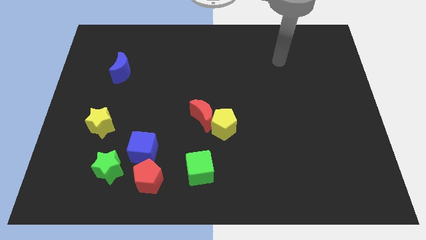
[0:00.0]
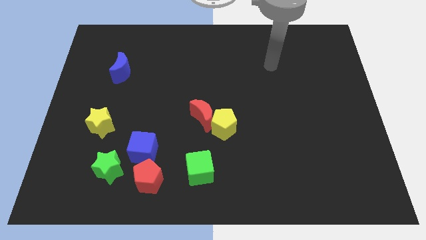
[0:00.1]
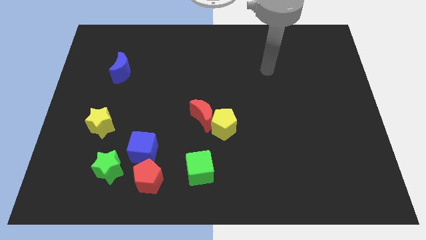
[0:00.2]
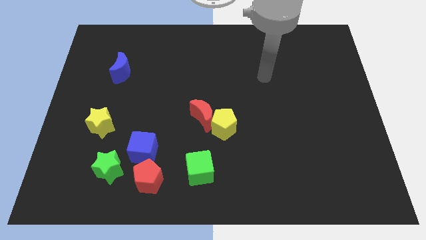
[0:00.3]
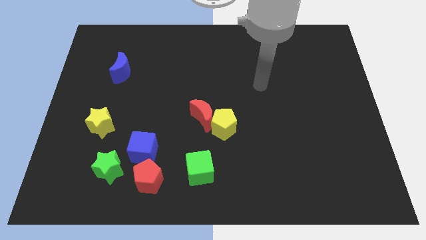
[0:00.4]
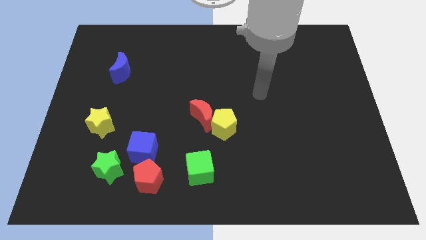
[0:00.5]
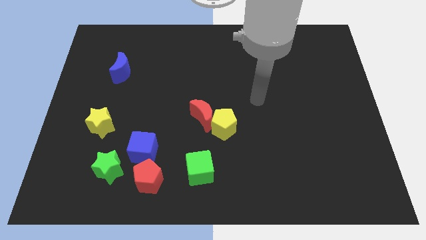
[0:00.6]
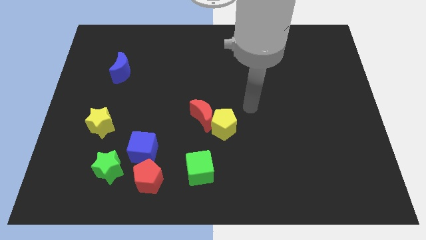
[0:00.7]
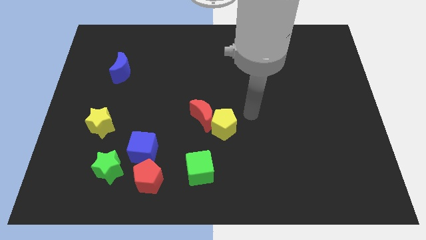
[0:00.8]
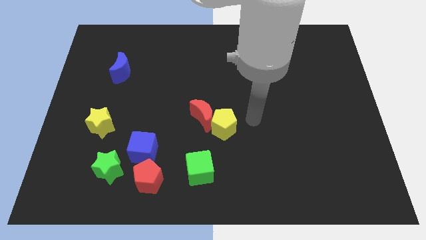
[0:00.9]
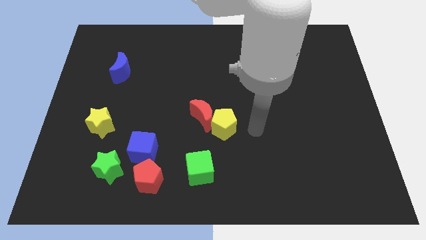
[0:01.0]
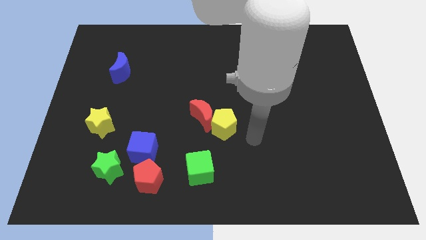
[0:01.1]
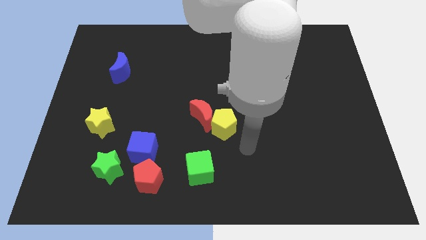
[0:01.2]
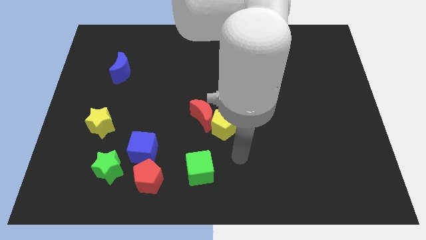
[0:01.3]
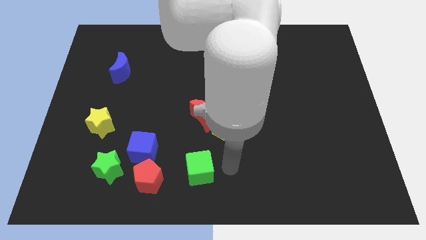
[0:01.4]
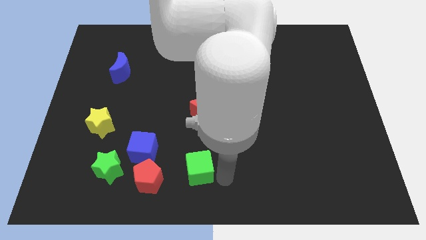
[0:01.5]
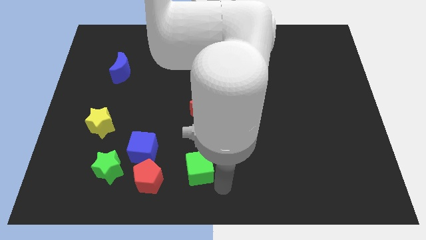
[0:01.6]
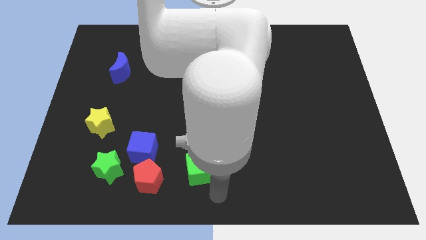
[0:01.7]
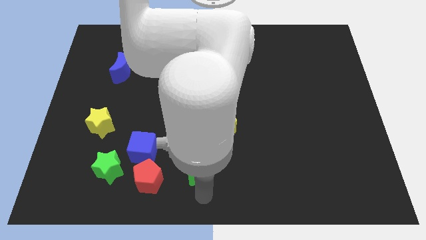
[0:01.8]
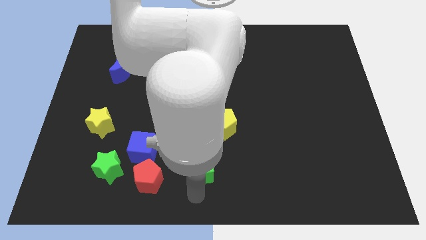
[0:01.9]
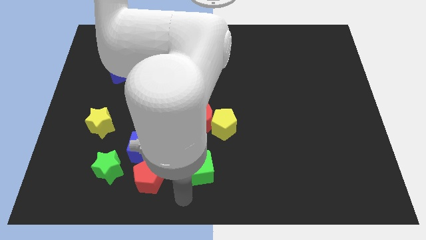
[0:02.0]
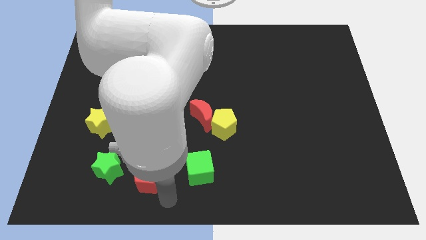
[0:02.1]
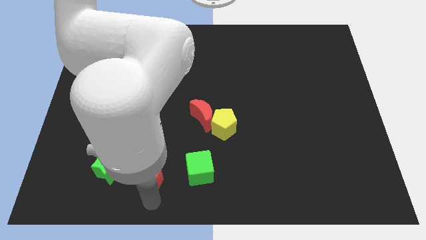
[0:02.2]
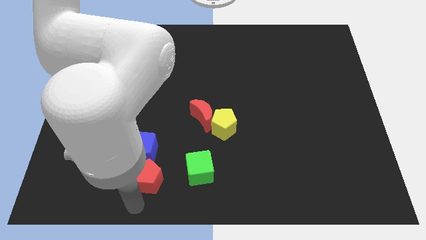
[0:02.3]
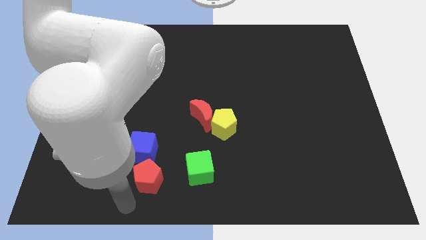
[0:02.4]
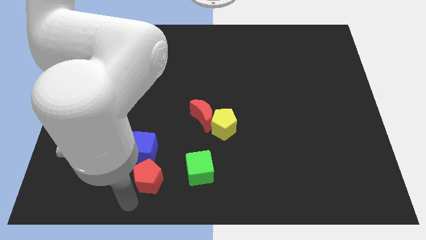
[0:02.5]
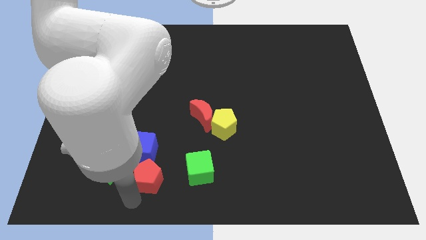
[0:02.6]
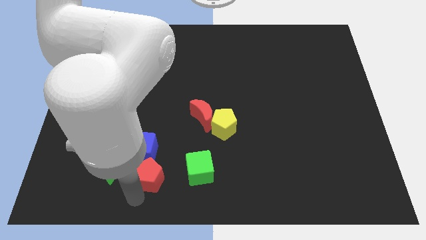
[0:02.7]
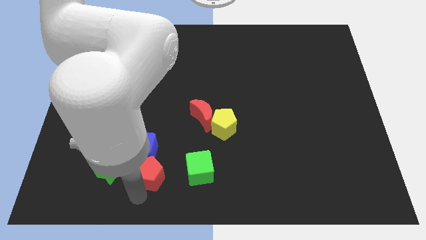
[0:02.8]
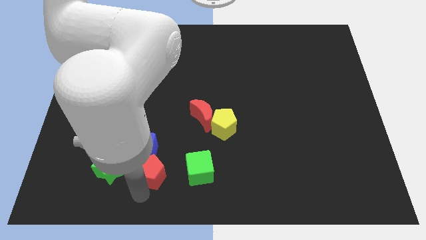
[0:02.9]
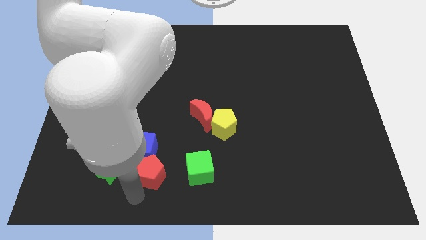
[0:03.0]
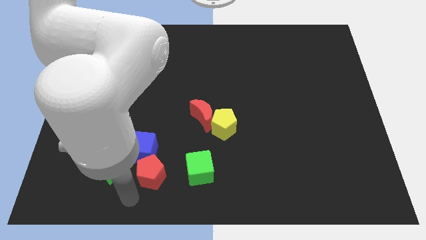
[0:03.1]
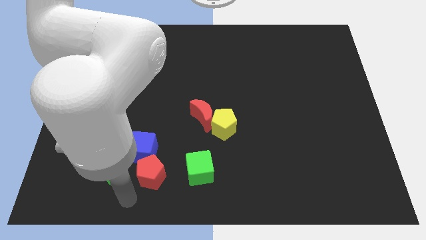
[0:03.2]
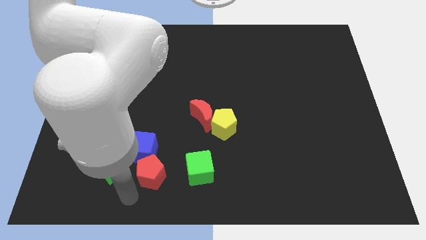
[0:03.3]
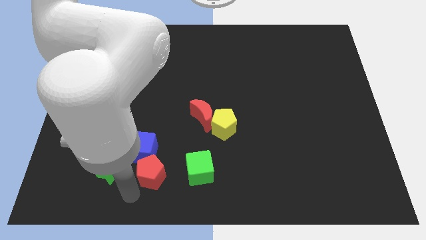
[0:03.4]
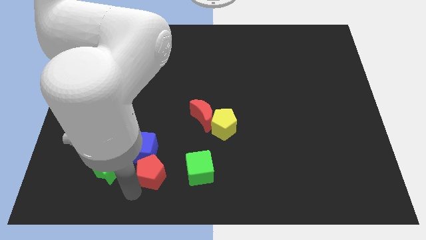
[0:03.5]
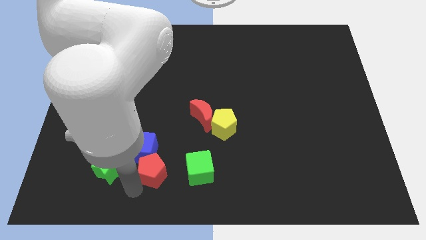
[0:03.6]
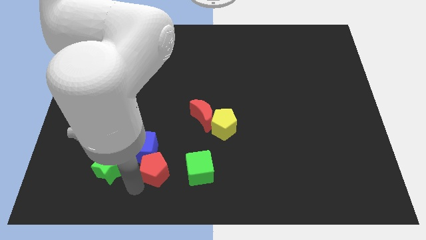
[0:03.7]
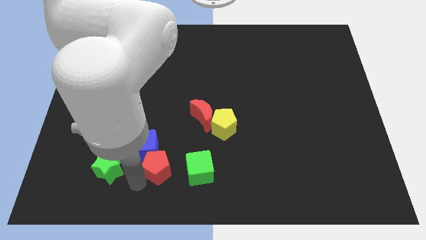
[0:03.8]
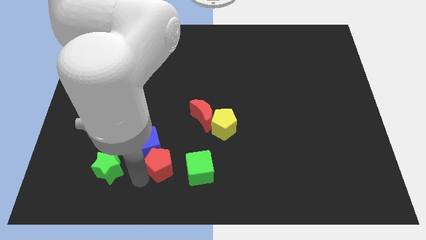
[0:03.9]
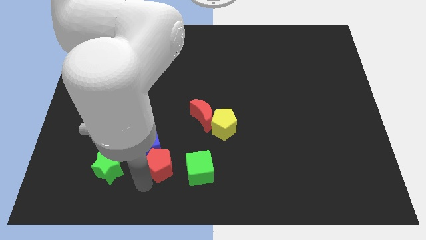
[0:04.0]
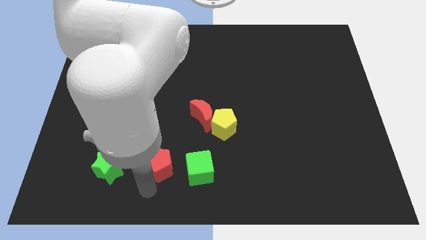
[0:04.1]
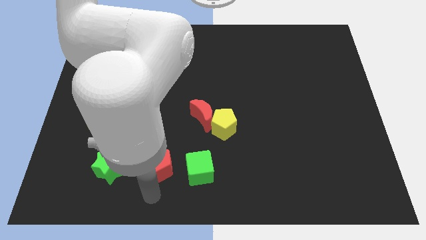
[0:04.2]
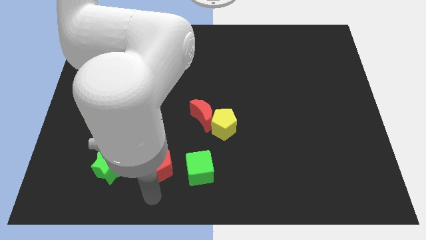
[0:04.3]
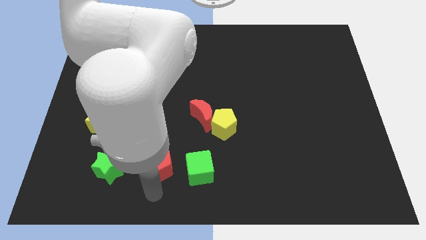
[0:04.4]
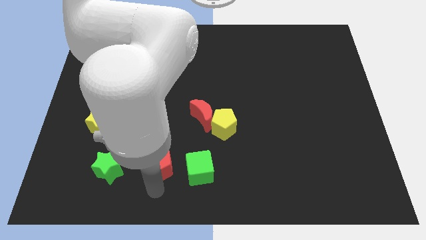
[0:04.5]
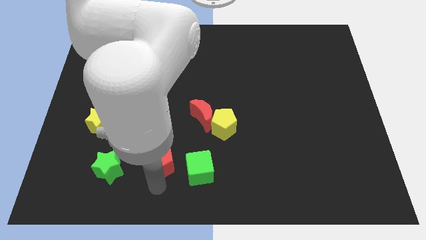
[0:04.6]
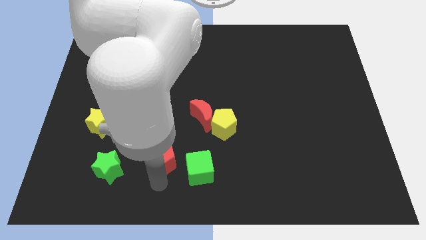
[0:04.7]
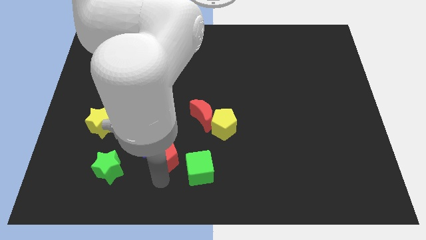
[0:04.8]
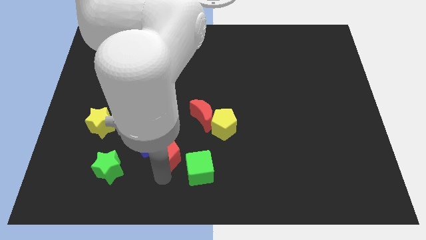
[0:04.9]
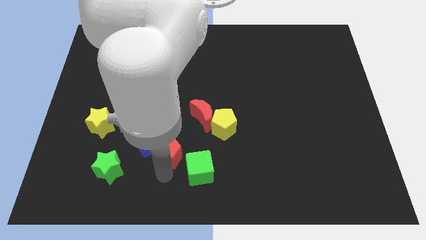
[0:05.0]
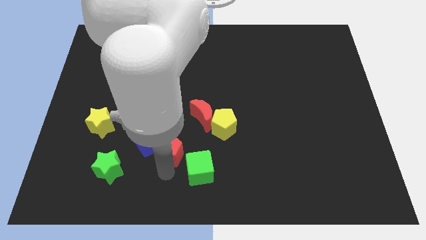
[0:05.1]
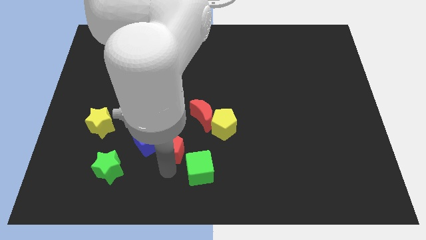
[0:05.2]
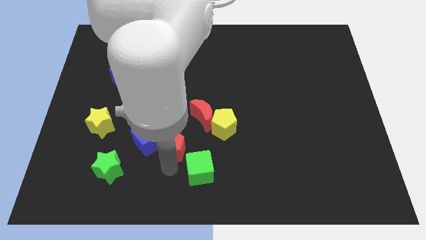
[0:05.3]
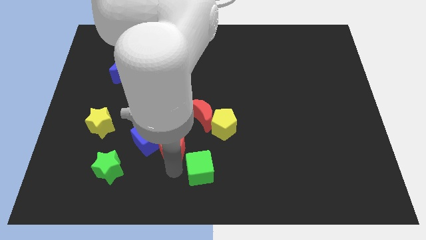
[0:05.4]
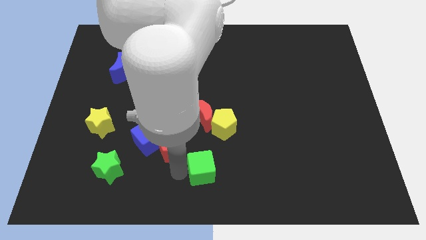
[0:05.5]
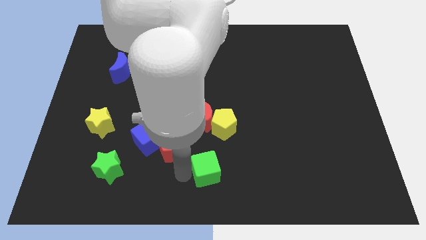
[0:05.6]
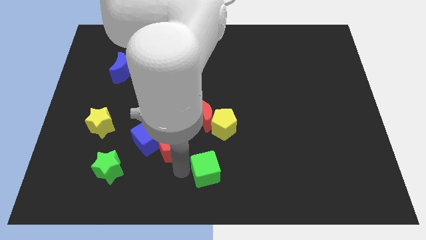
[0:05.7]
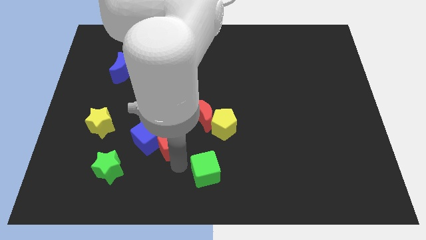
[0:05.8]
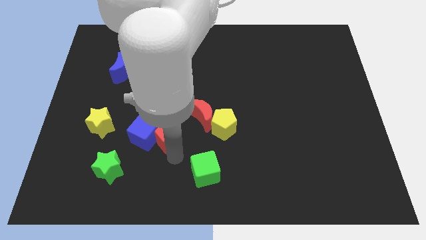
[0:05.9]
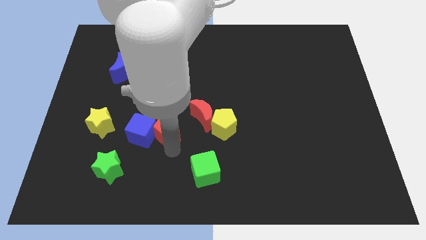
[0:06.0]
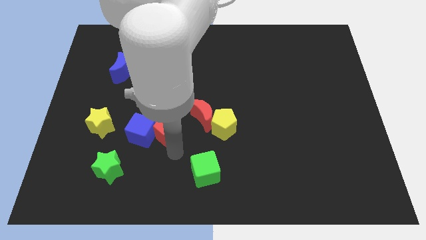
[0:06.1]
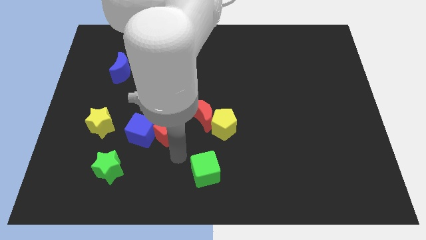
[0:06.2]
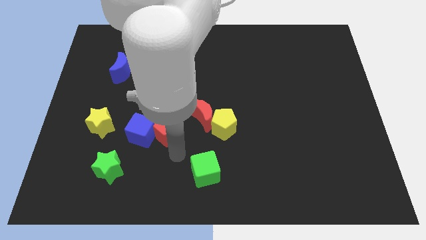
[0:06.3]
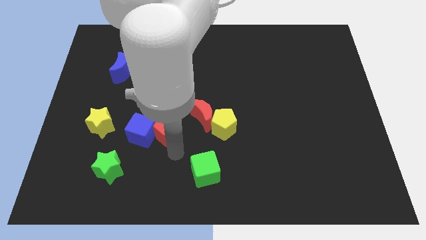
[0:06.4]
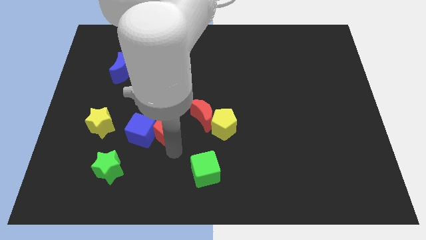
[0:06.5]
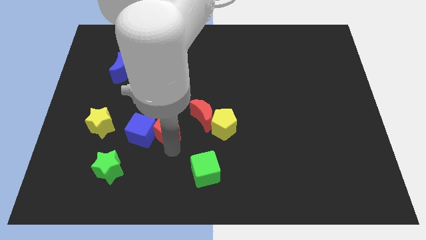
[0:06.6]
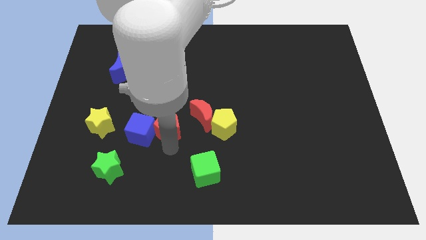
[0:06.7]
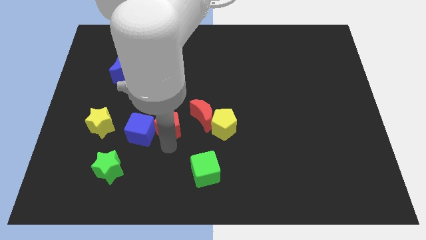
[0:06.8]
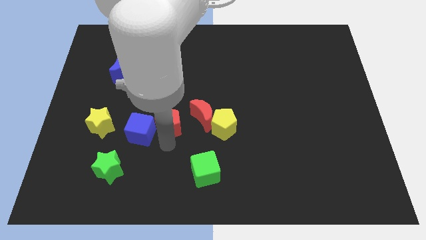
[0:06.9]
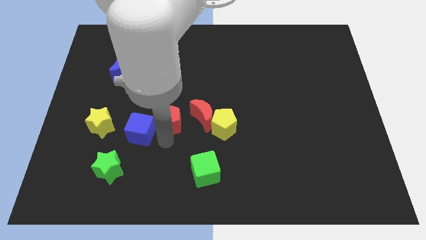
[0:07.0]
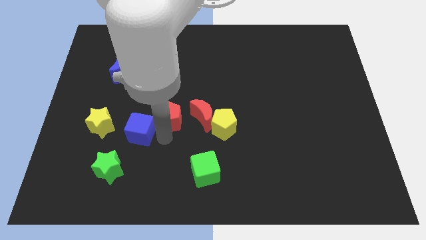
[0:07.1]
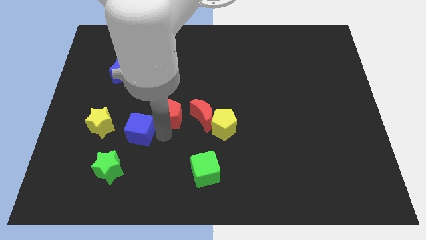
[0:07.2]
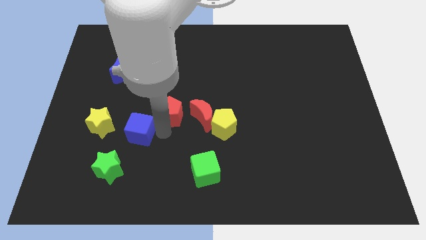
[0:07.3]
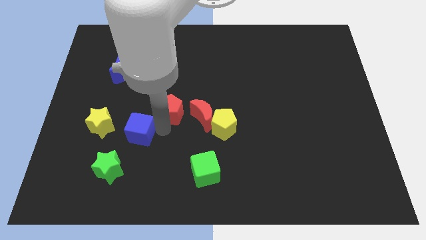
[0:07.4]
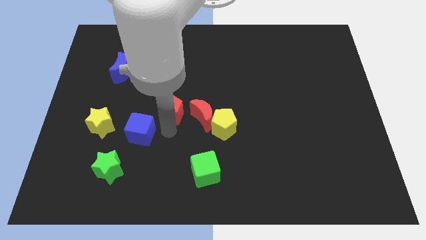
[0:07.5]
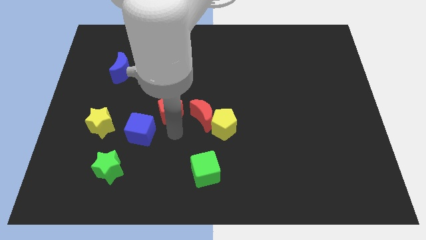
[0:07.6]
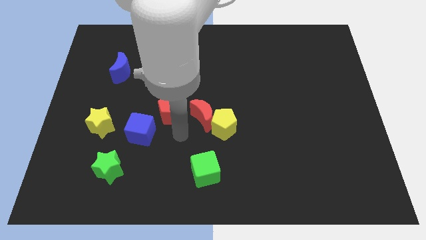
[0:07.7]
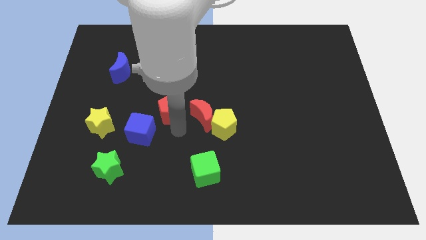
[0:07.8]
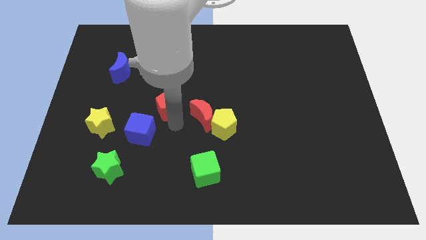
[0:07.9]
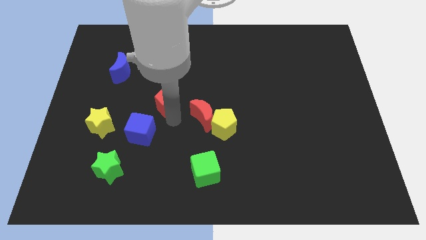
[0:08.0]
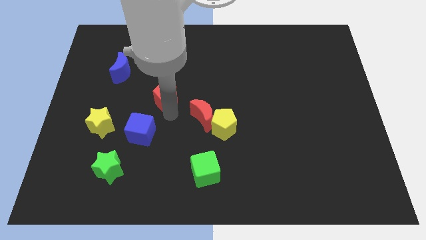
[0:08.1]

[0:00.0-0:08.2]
slide the red pentagon up
